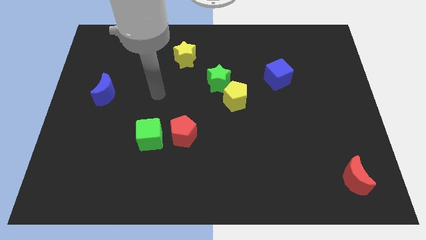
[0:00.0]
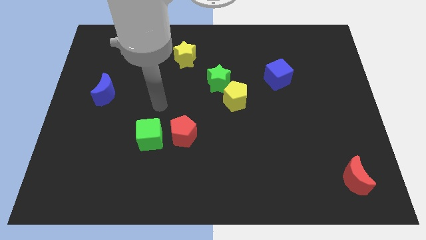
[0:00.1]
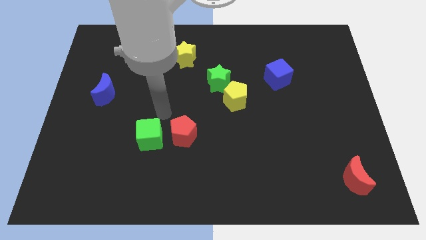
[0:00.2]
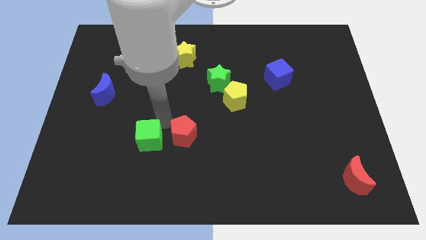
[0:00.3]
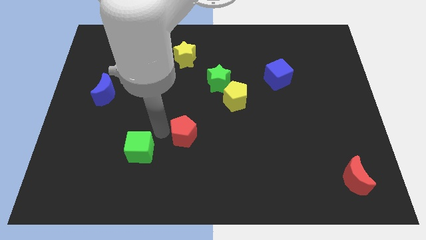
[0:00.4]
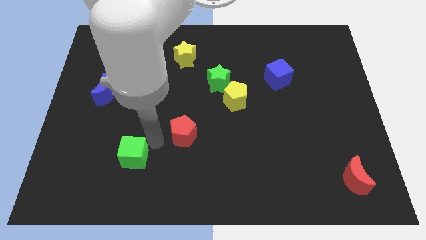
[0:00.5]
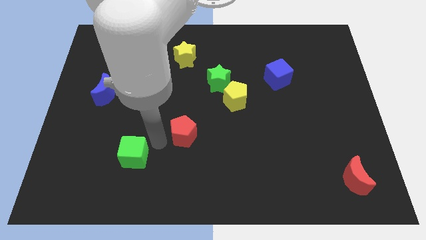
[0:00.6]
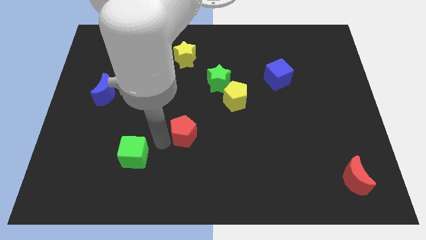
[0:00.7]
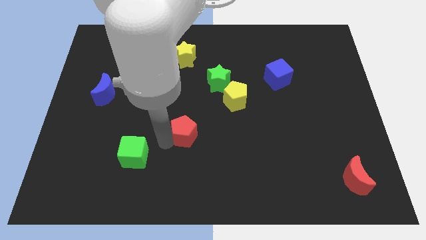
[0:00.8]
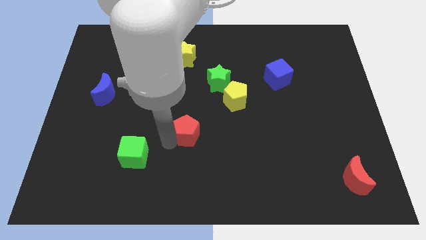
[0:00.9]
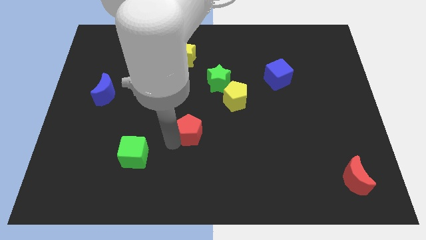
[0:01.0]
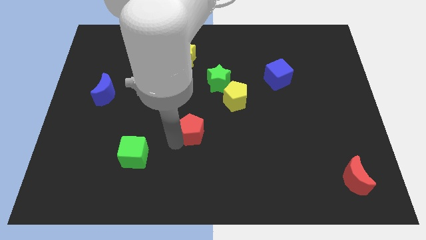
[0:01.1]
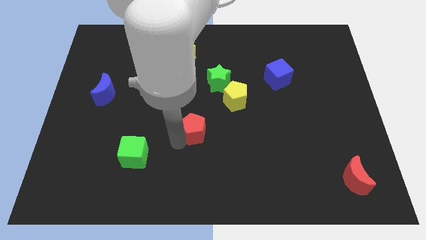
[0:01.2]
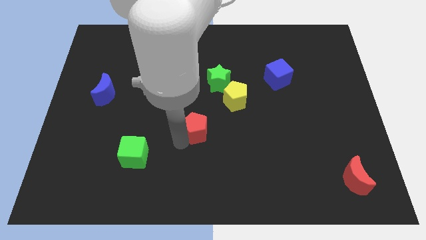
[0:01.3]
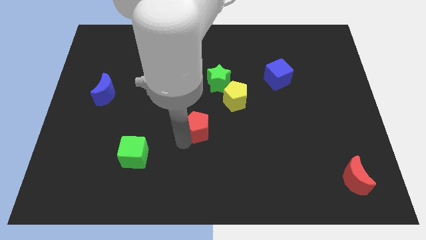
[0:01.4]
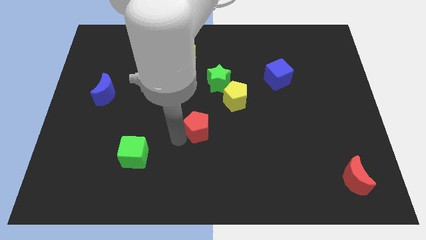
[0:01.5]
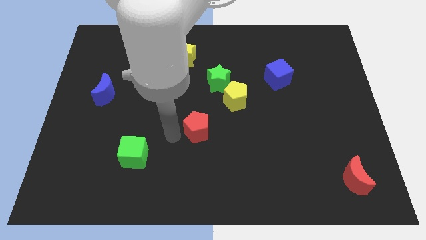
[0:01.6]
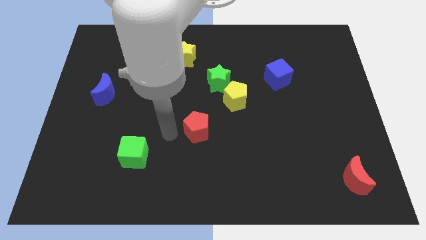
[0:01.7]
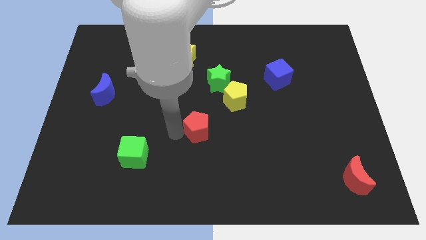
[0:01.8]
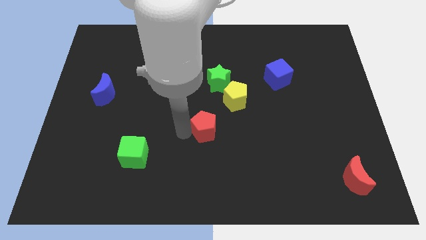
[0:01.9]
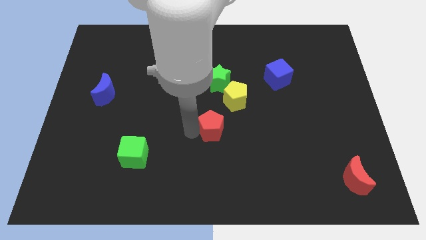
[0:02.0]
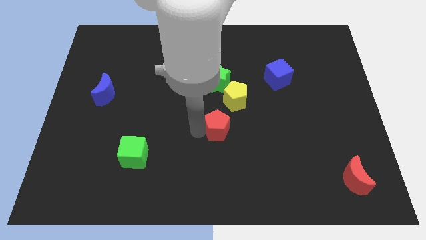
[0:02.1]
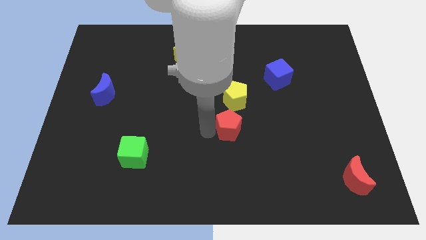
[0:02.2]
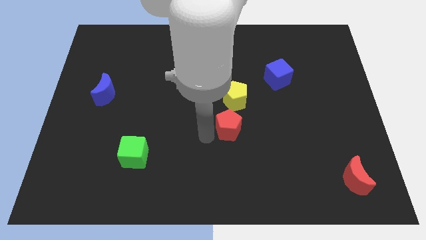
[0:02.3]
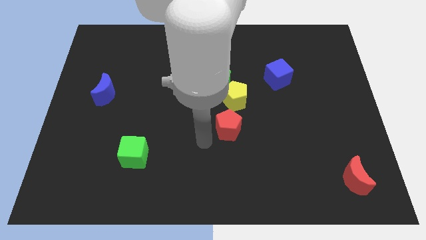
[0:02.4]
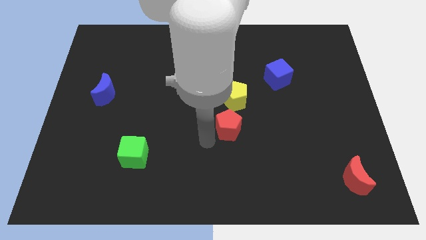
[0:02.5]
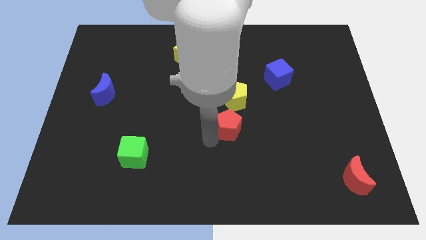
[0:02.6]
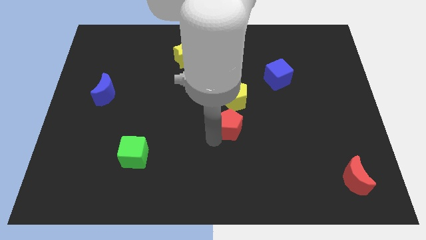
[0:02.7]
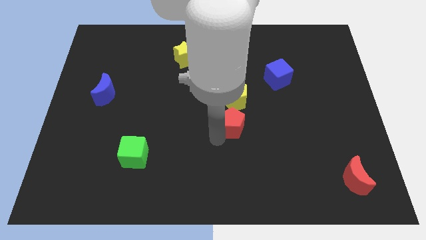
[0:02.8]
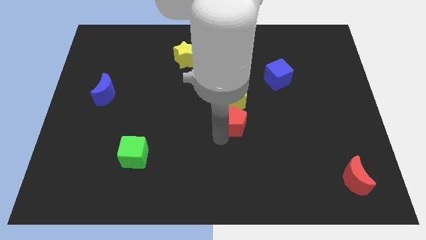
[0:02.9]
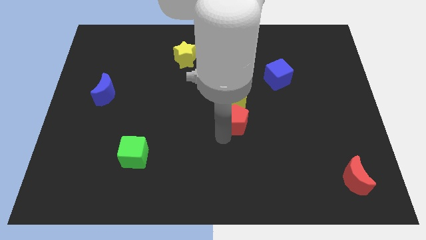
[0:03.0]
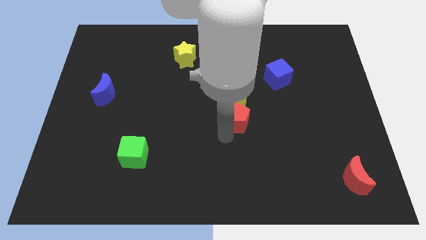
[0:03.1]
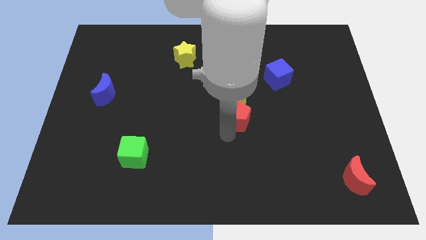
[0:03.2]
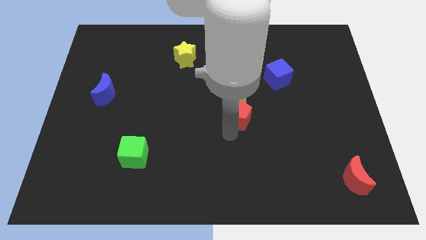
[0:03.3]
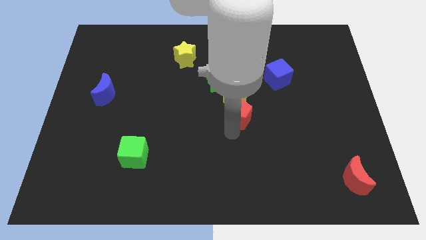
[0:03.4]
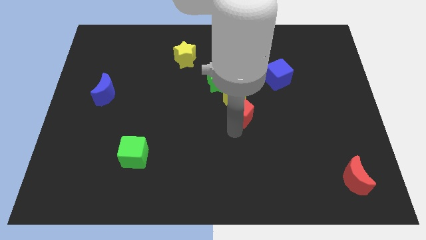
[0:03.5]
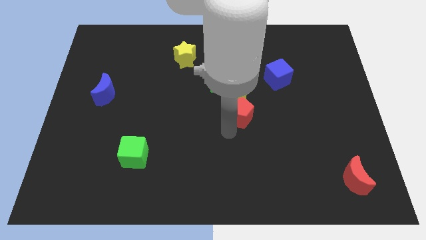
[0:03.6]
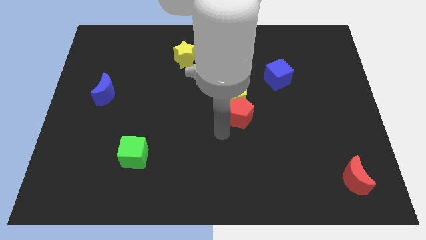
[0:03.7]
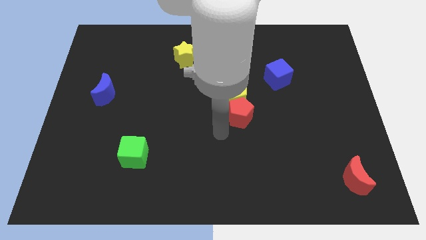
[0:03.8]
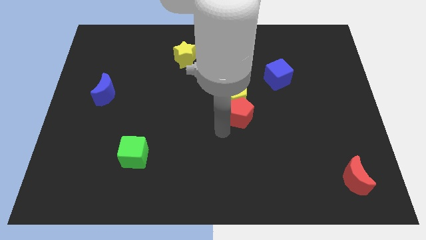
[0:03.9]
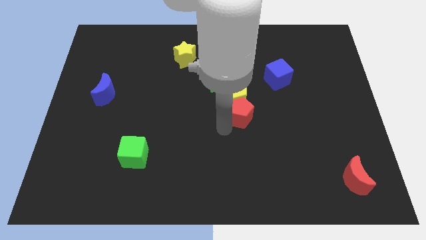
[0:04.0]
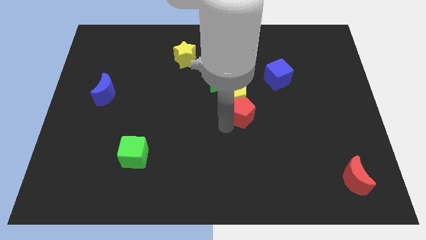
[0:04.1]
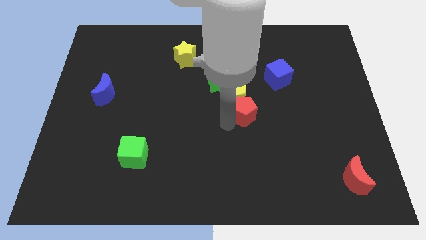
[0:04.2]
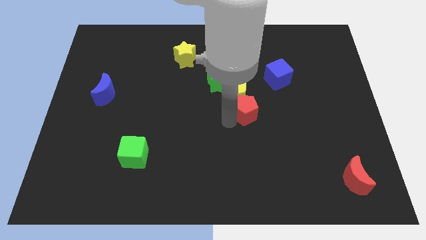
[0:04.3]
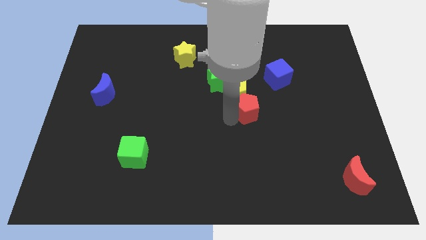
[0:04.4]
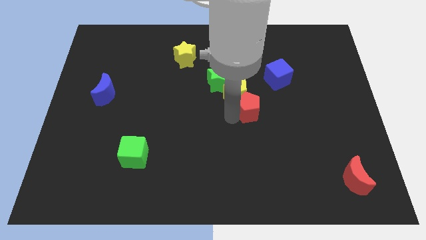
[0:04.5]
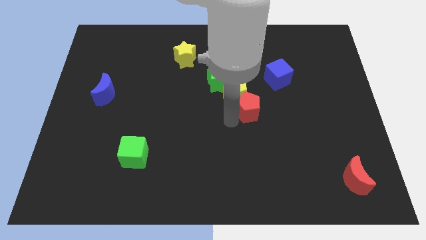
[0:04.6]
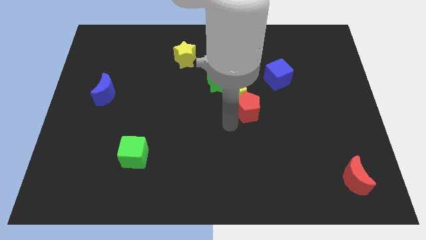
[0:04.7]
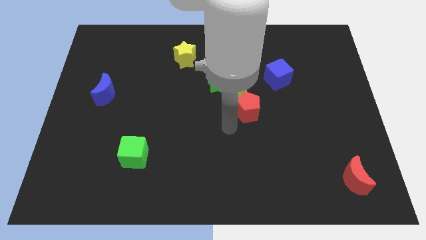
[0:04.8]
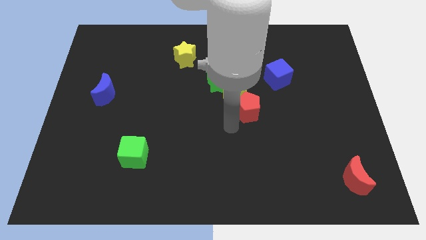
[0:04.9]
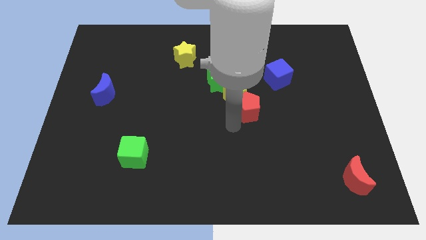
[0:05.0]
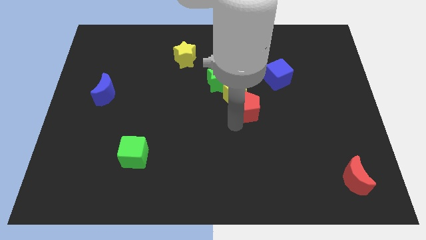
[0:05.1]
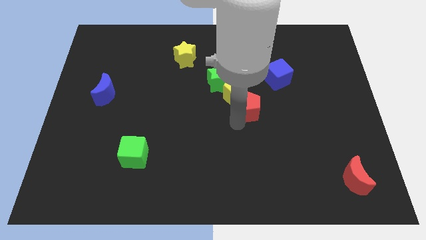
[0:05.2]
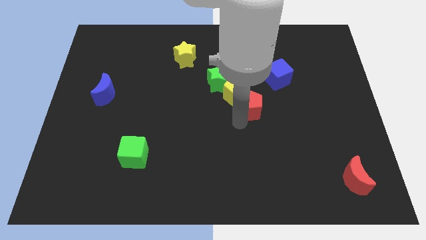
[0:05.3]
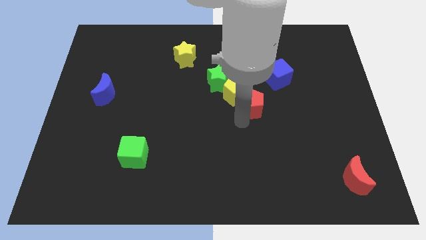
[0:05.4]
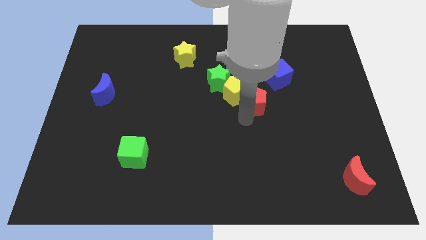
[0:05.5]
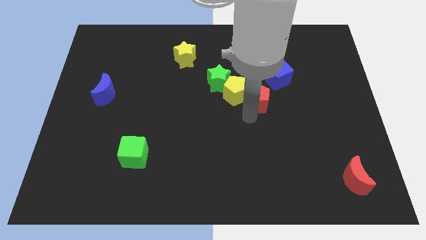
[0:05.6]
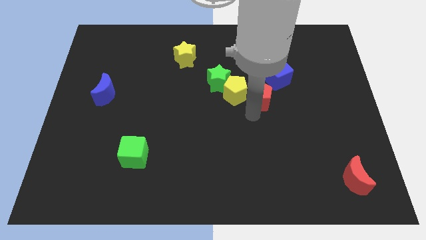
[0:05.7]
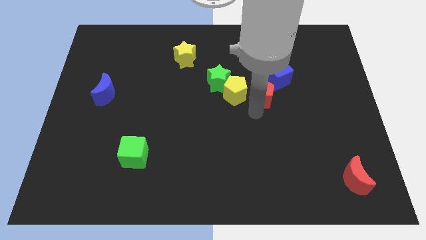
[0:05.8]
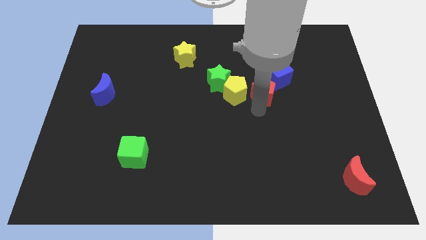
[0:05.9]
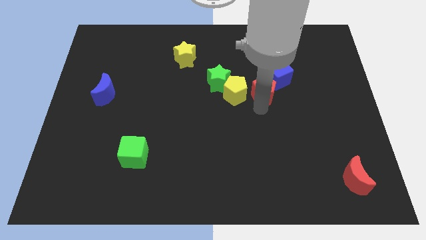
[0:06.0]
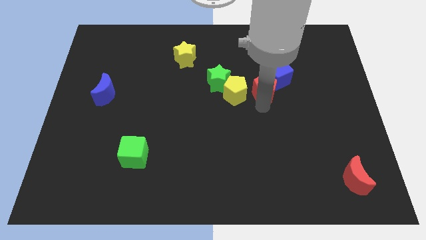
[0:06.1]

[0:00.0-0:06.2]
push the red pentagon next to the blue cube
